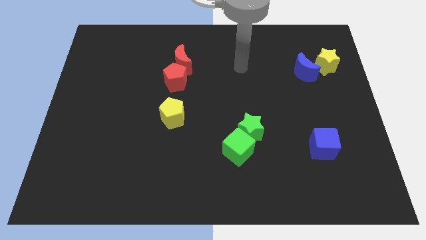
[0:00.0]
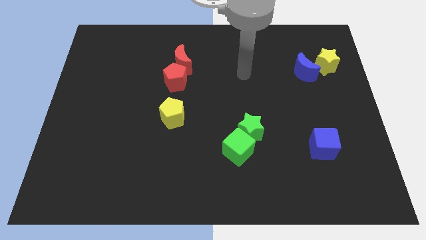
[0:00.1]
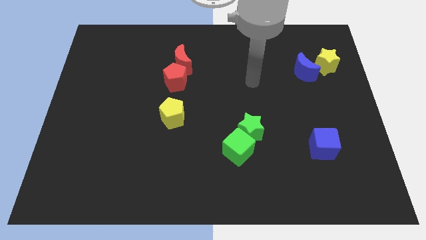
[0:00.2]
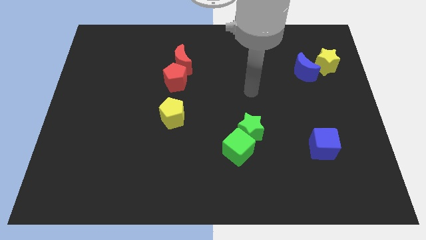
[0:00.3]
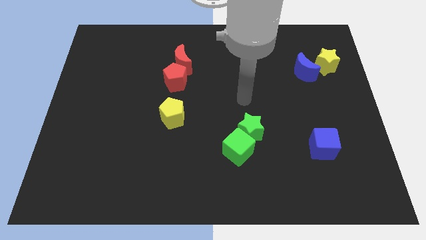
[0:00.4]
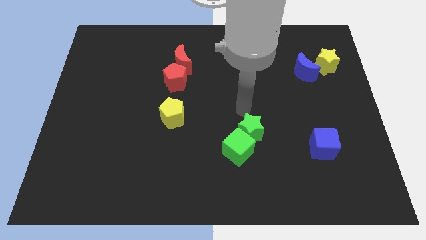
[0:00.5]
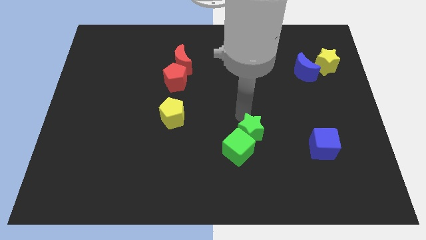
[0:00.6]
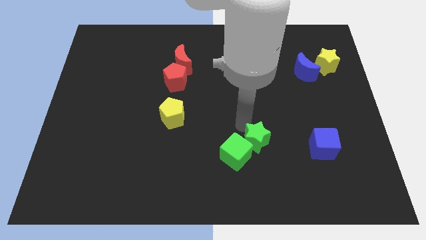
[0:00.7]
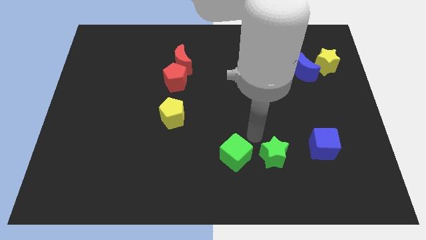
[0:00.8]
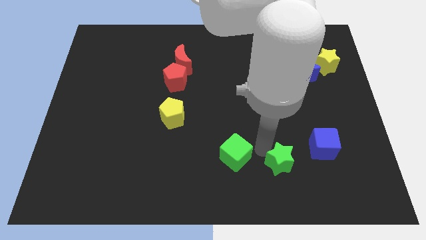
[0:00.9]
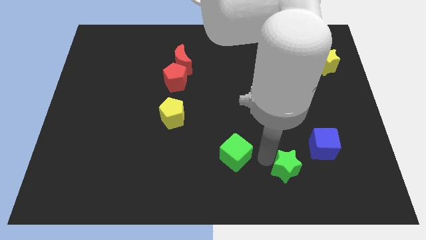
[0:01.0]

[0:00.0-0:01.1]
pull the green cube apart from the green star

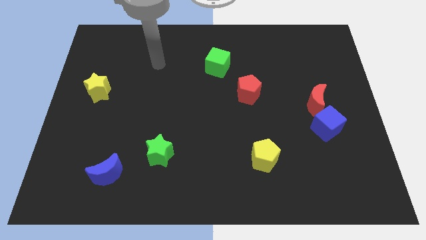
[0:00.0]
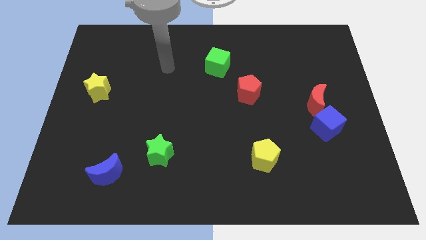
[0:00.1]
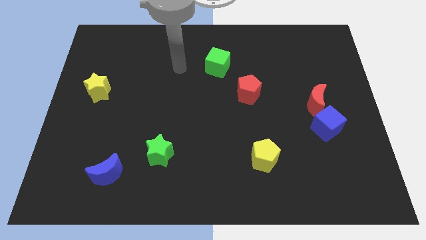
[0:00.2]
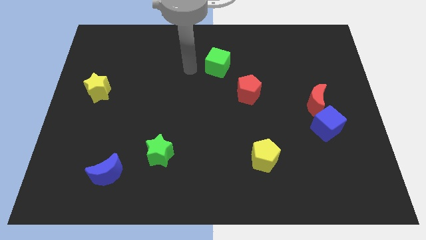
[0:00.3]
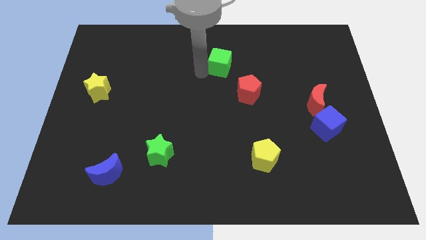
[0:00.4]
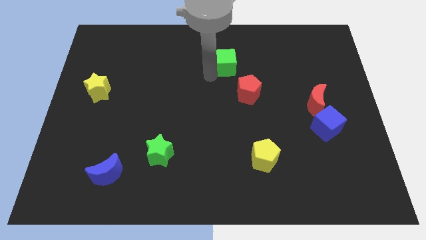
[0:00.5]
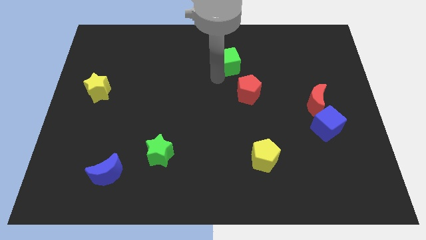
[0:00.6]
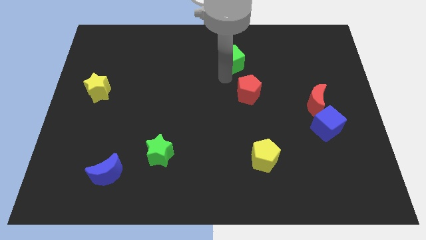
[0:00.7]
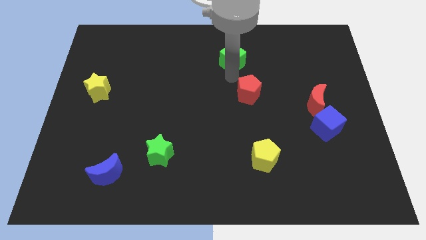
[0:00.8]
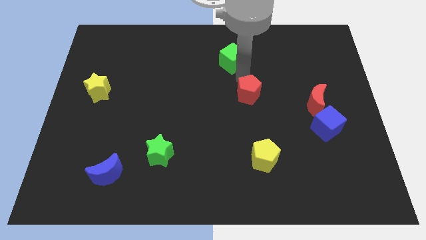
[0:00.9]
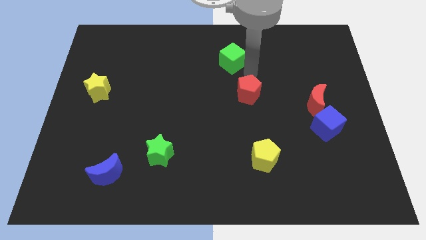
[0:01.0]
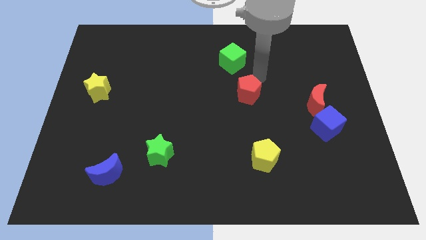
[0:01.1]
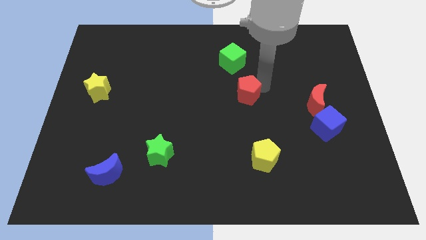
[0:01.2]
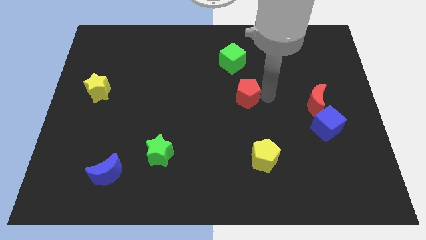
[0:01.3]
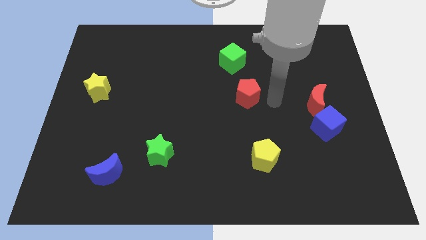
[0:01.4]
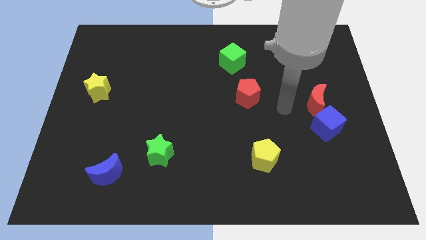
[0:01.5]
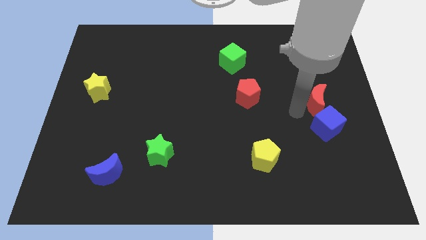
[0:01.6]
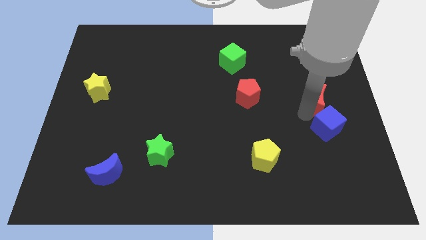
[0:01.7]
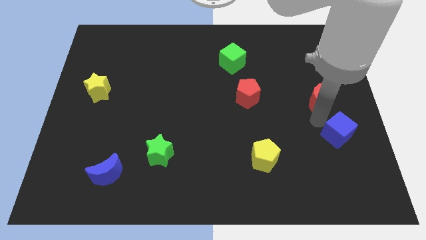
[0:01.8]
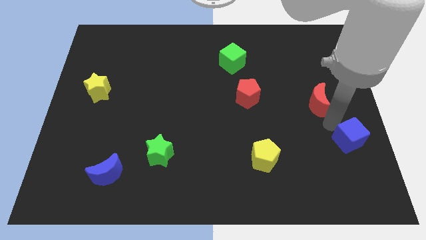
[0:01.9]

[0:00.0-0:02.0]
pull the red moon apart from the blue cube

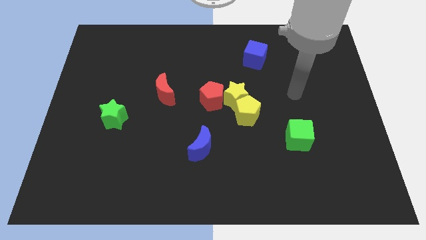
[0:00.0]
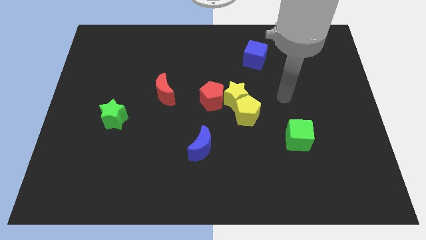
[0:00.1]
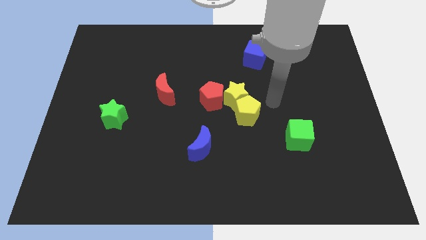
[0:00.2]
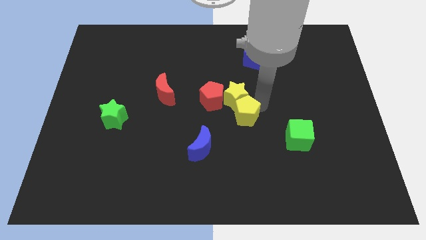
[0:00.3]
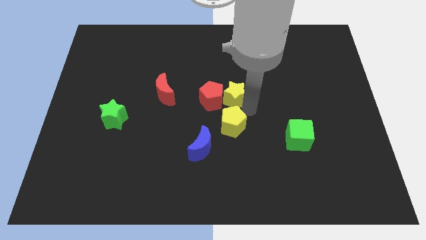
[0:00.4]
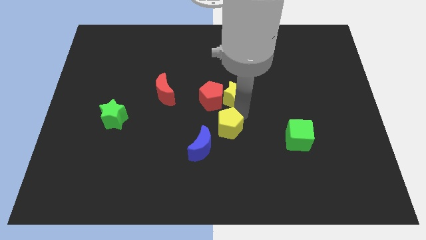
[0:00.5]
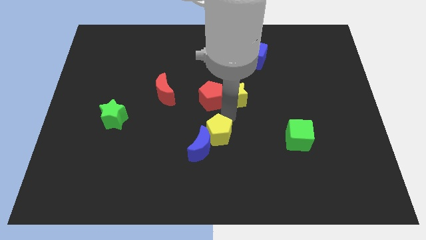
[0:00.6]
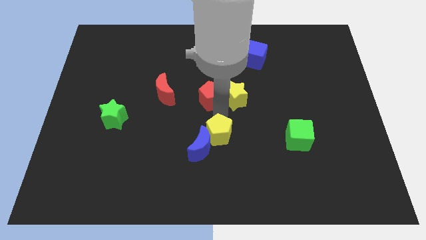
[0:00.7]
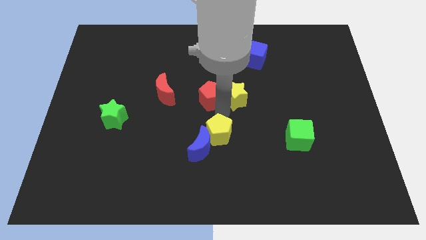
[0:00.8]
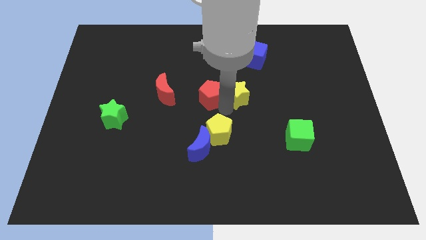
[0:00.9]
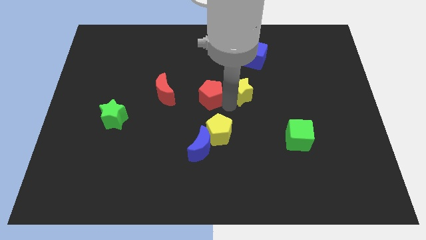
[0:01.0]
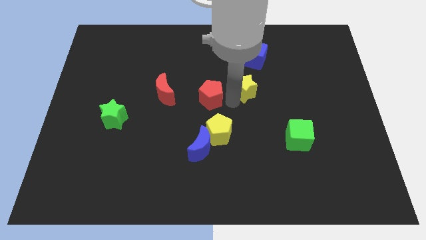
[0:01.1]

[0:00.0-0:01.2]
separate the yellow star from the yellow pentagon and red pentagon

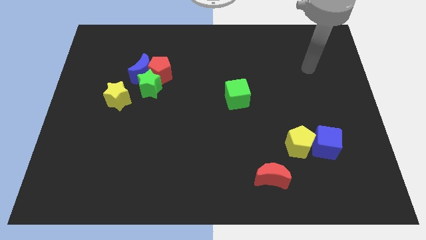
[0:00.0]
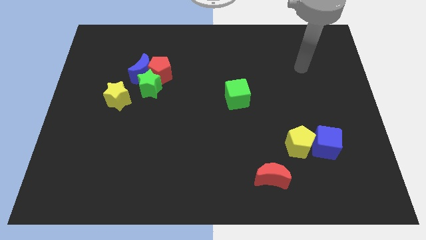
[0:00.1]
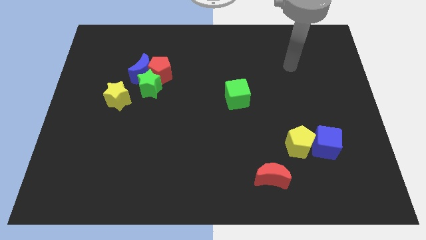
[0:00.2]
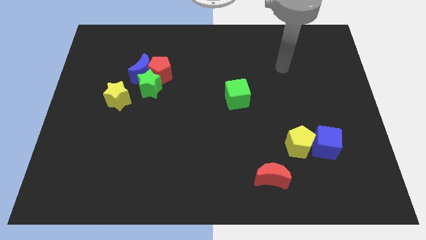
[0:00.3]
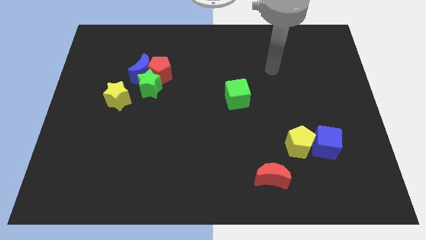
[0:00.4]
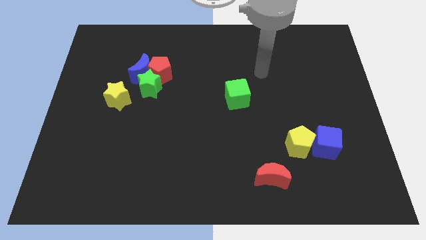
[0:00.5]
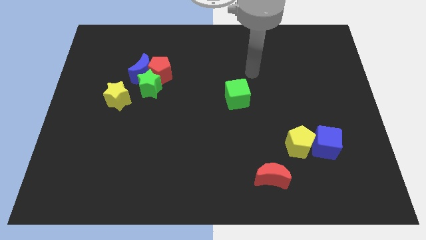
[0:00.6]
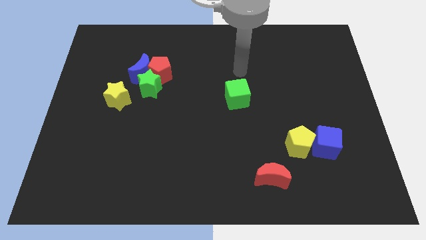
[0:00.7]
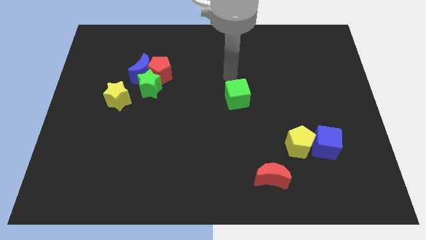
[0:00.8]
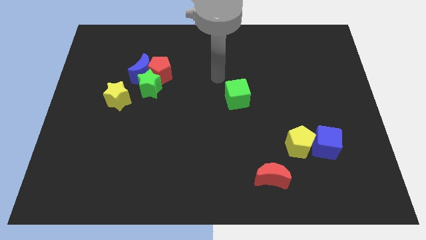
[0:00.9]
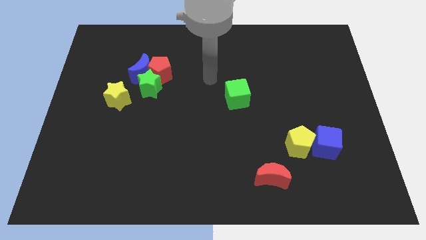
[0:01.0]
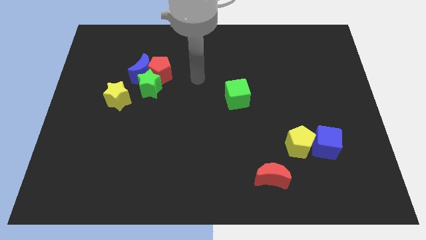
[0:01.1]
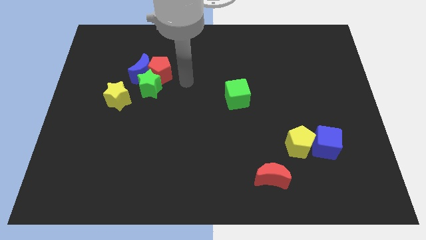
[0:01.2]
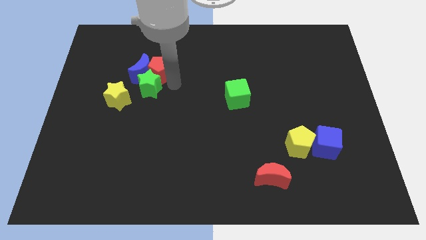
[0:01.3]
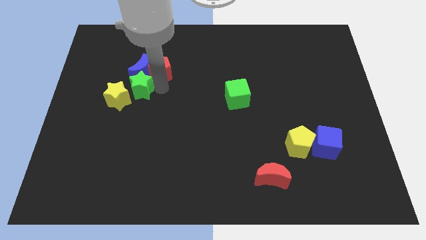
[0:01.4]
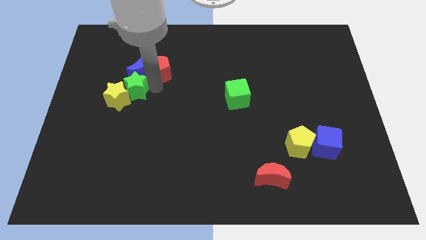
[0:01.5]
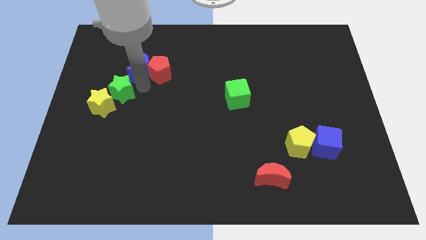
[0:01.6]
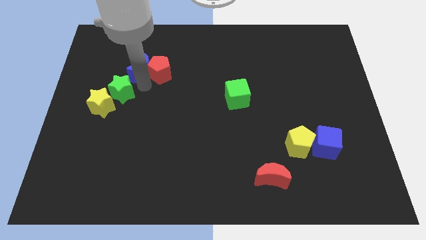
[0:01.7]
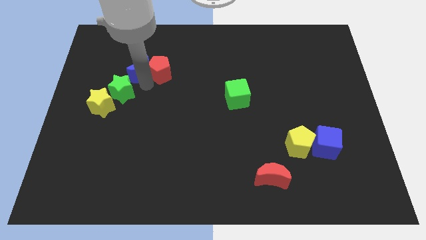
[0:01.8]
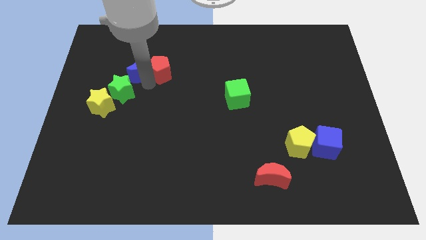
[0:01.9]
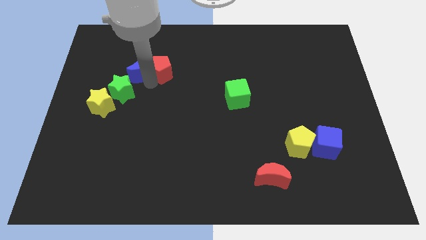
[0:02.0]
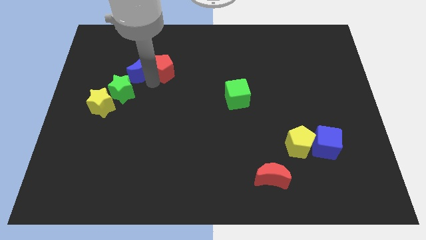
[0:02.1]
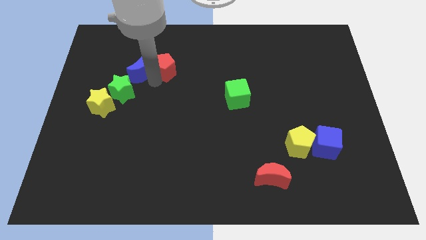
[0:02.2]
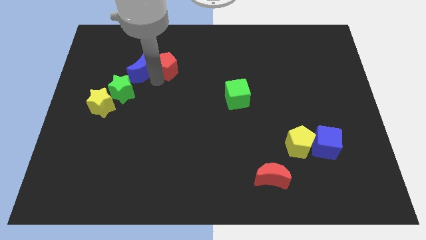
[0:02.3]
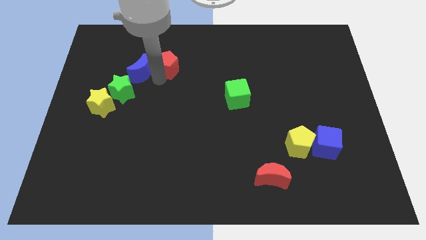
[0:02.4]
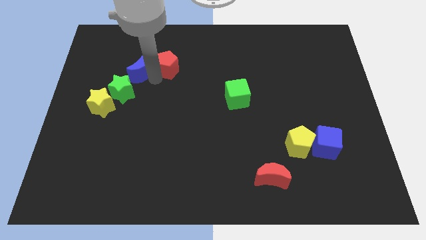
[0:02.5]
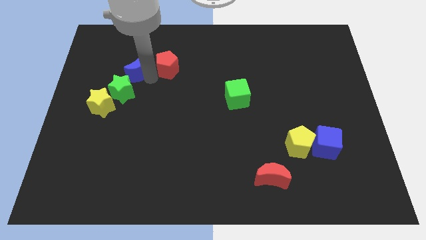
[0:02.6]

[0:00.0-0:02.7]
pull the red pentagon apart from the blue moon and green star

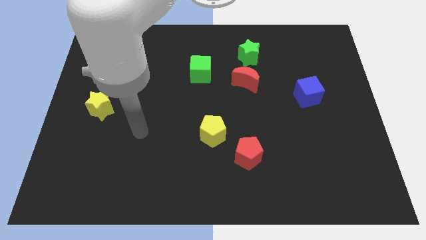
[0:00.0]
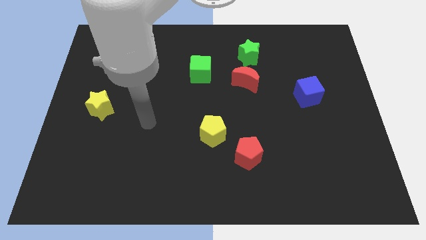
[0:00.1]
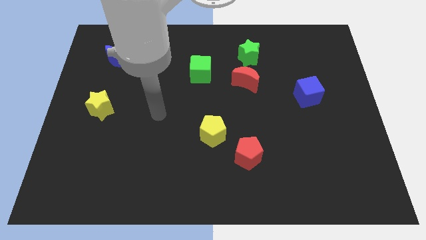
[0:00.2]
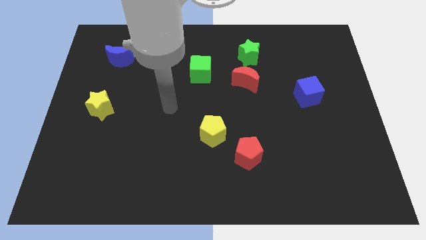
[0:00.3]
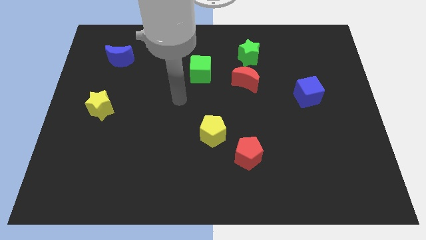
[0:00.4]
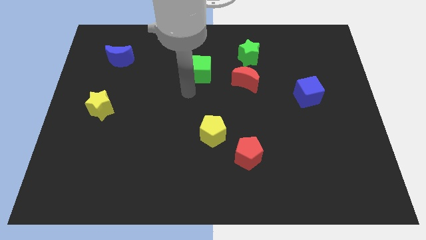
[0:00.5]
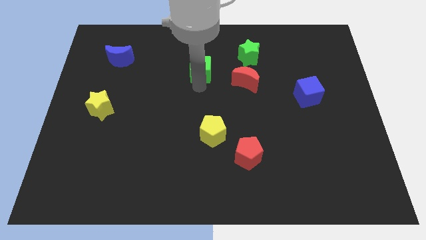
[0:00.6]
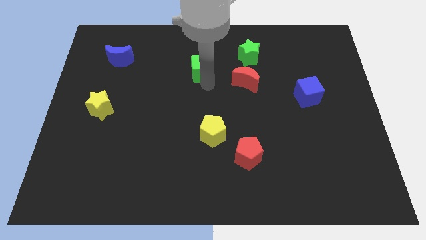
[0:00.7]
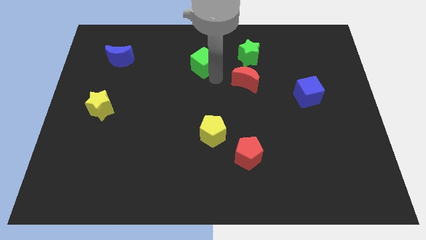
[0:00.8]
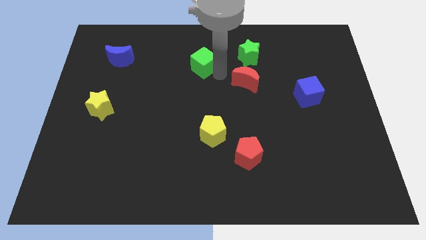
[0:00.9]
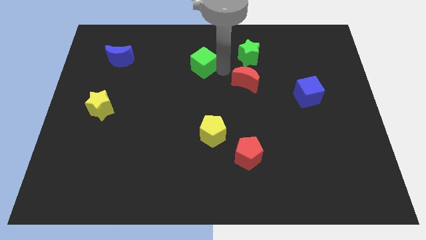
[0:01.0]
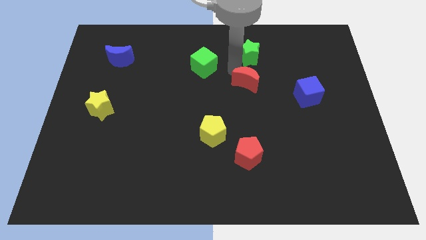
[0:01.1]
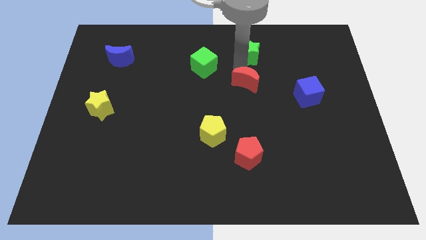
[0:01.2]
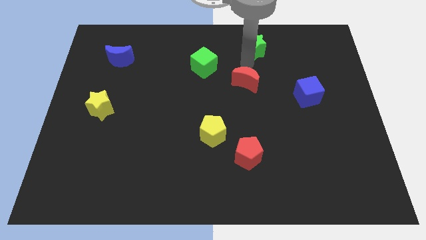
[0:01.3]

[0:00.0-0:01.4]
pull the red moon apart from the green star

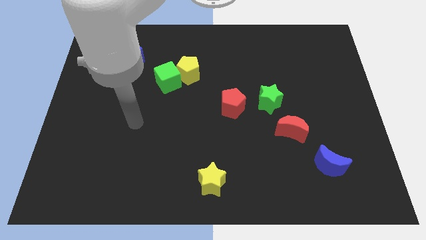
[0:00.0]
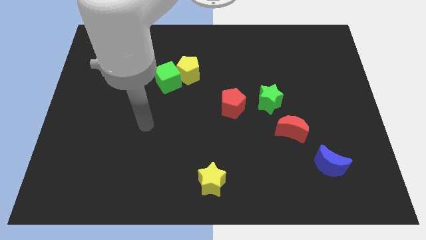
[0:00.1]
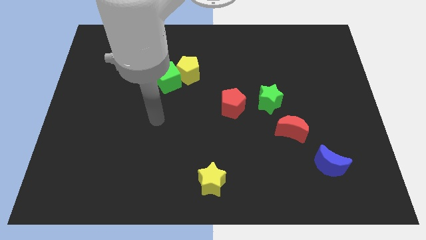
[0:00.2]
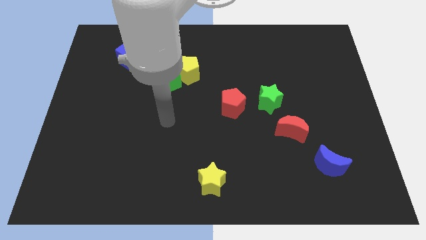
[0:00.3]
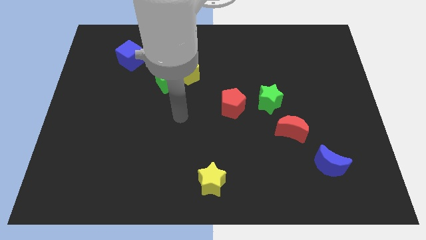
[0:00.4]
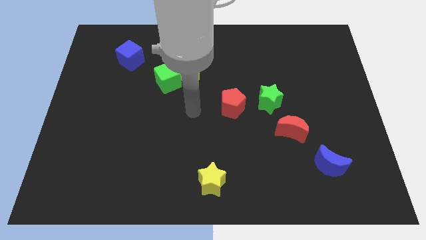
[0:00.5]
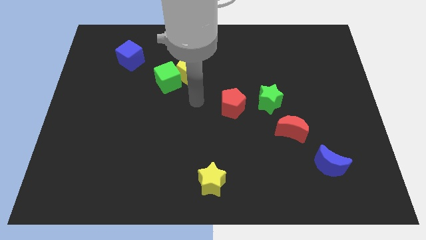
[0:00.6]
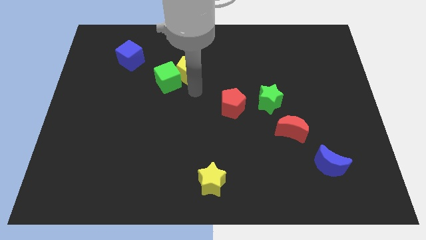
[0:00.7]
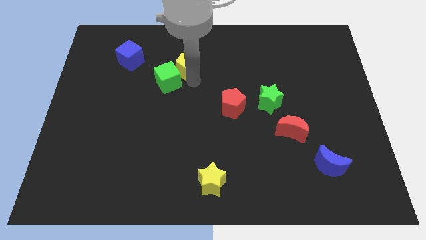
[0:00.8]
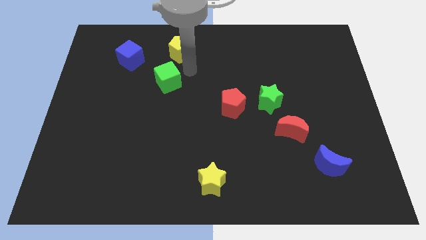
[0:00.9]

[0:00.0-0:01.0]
separate the green cube from the yellow pentagon
